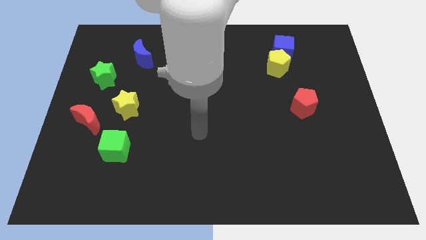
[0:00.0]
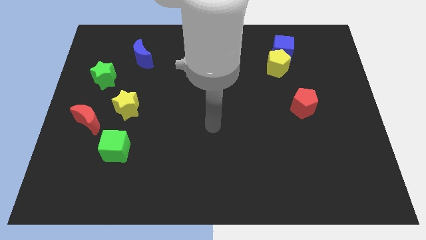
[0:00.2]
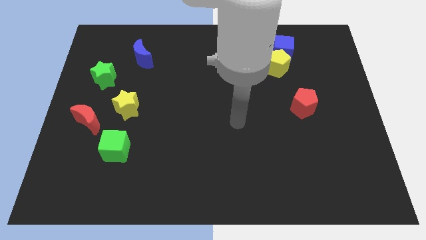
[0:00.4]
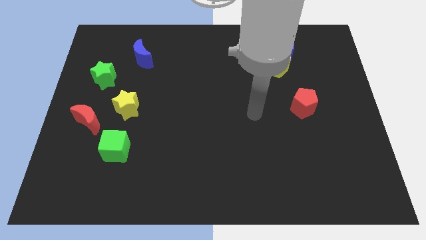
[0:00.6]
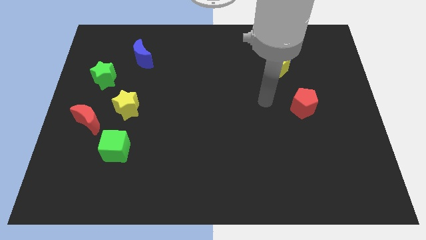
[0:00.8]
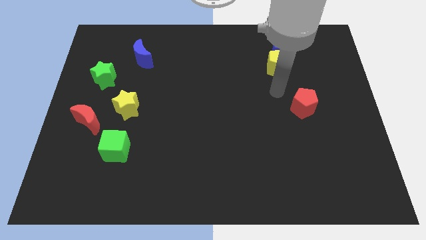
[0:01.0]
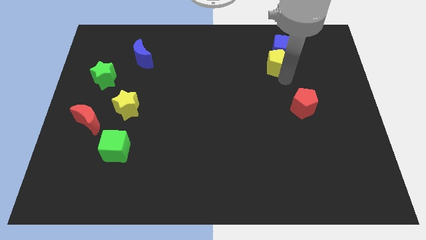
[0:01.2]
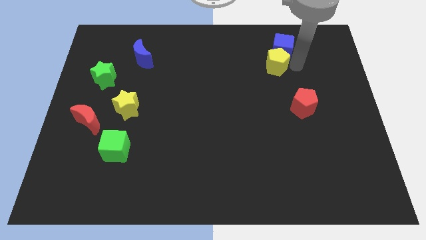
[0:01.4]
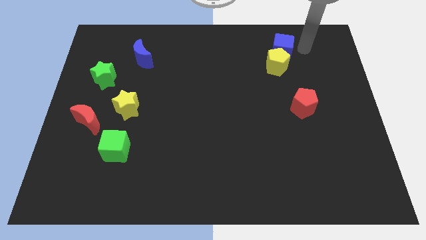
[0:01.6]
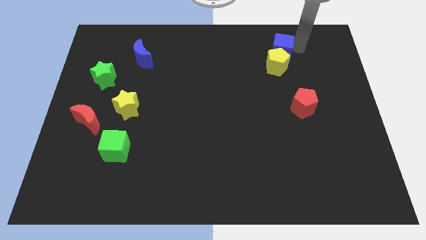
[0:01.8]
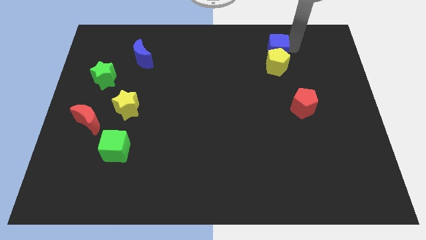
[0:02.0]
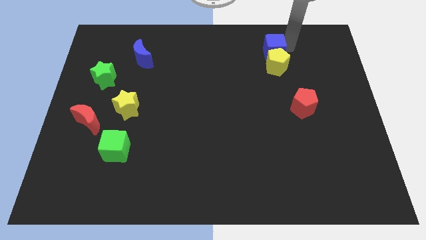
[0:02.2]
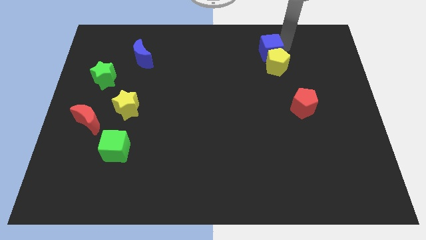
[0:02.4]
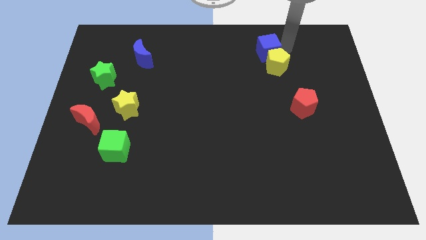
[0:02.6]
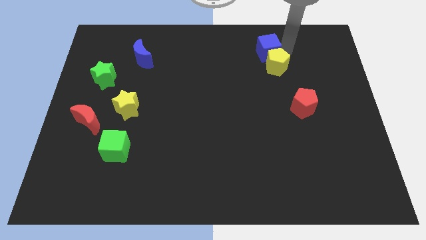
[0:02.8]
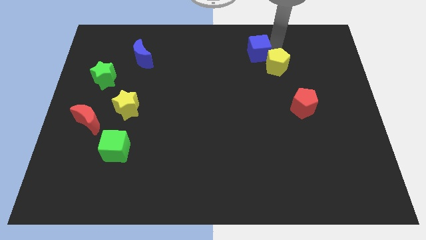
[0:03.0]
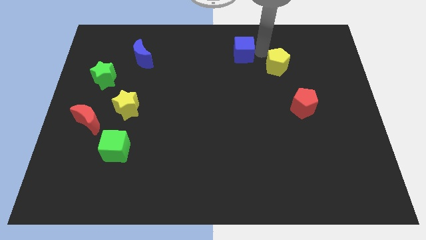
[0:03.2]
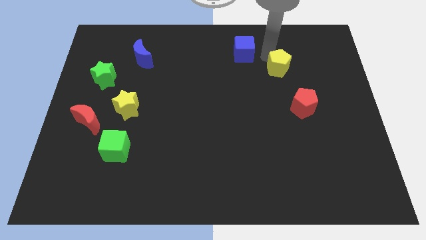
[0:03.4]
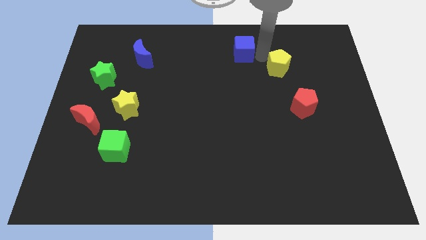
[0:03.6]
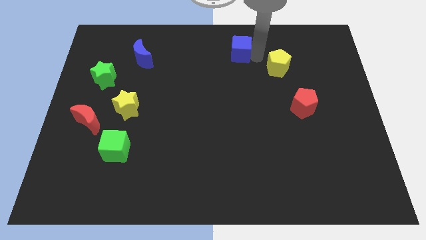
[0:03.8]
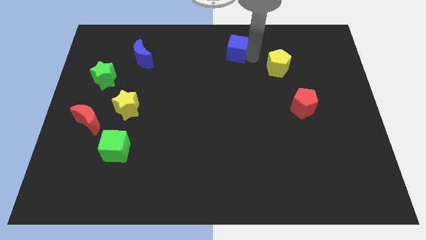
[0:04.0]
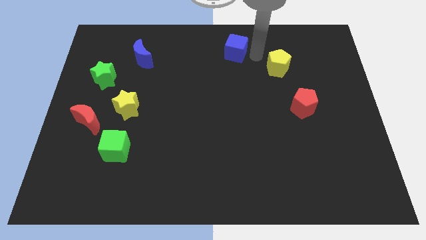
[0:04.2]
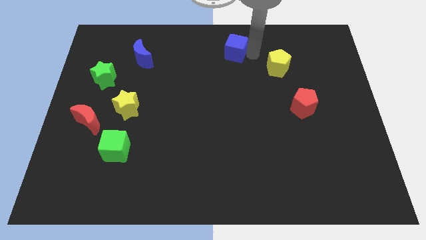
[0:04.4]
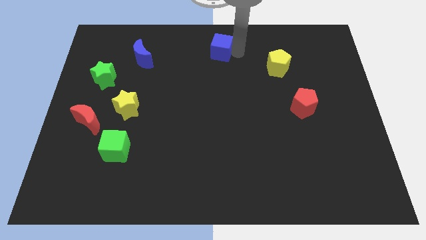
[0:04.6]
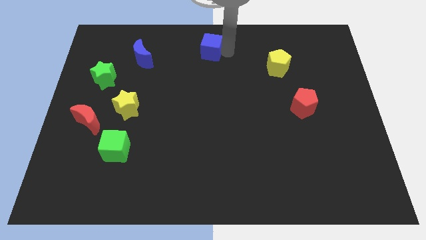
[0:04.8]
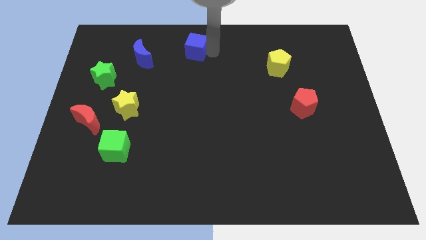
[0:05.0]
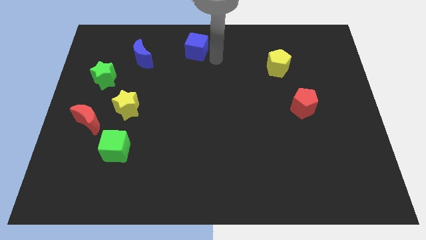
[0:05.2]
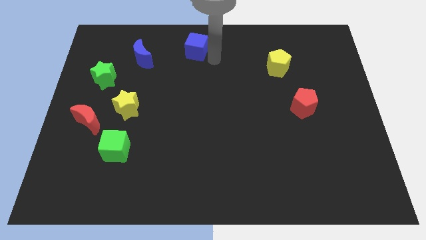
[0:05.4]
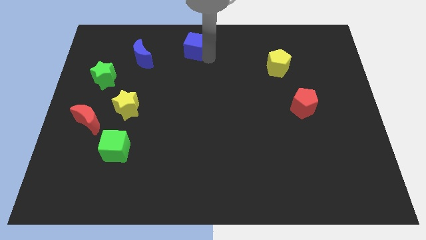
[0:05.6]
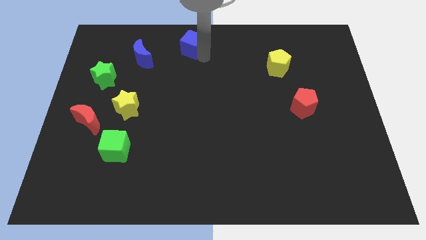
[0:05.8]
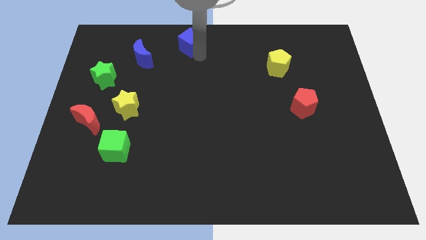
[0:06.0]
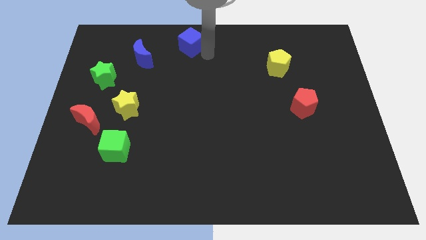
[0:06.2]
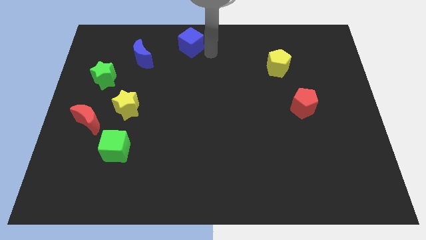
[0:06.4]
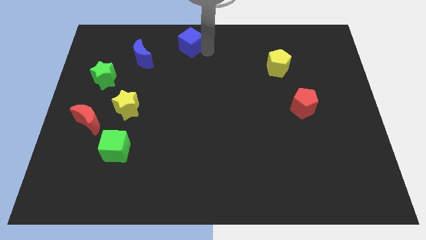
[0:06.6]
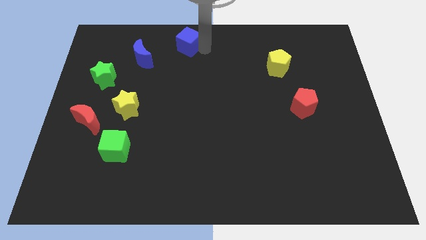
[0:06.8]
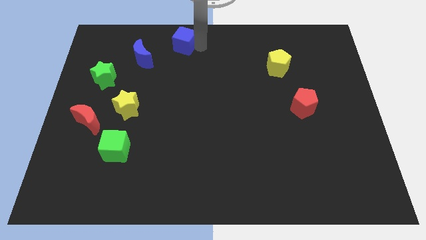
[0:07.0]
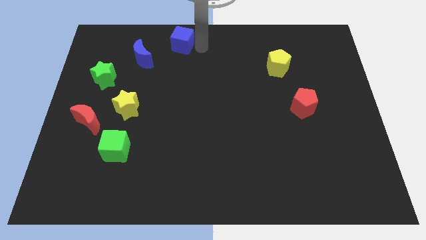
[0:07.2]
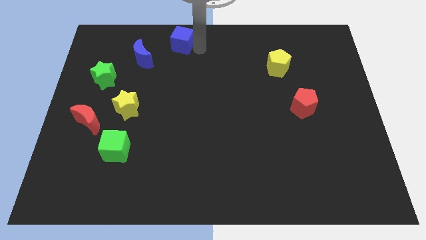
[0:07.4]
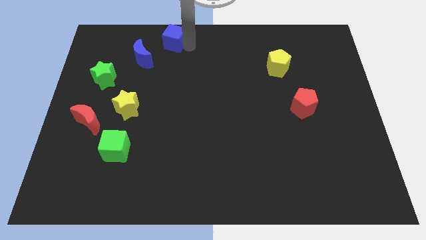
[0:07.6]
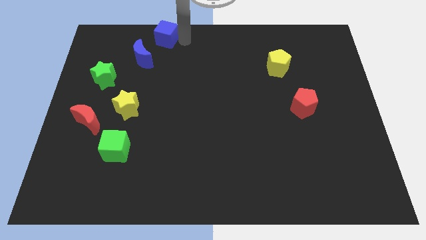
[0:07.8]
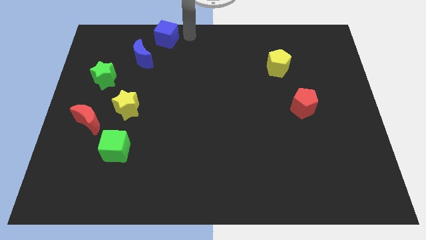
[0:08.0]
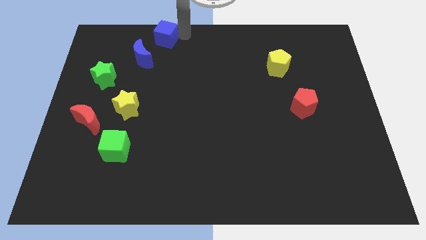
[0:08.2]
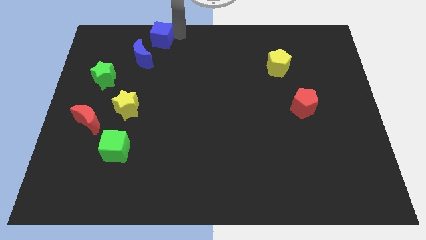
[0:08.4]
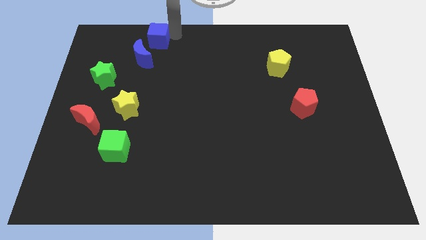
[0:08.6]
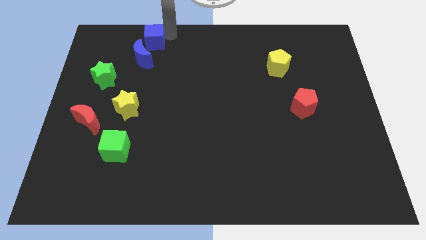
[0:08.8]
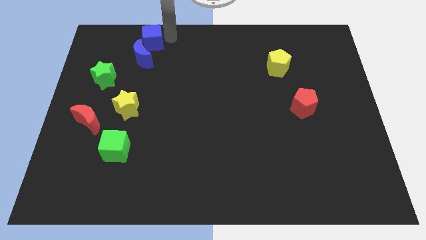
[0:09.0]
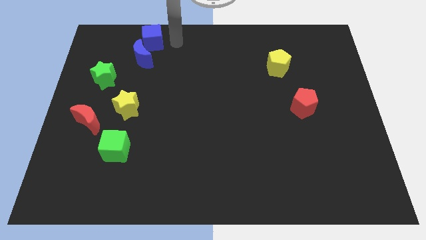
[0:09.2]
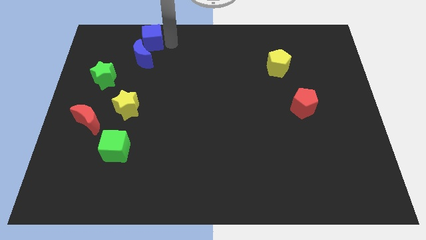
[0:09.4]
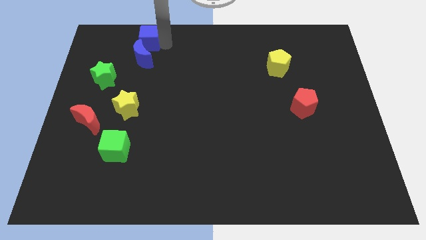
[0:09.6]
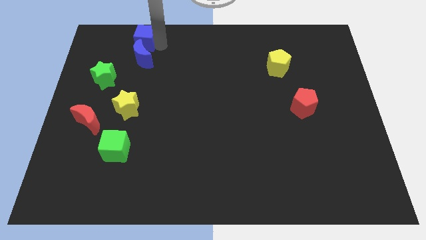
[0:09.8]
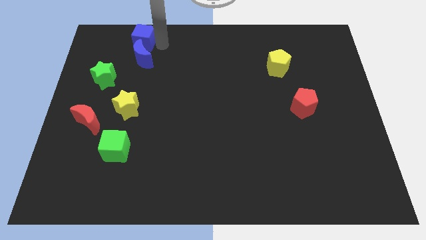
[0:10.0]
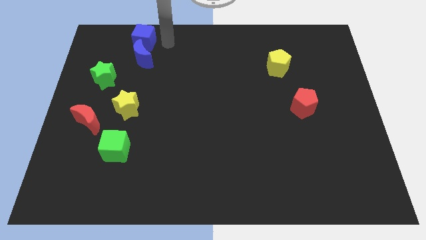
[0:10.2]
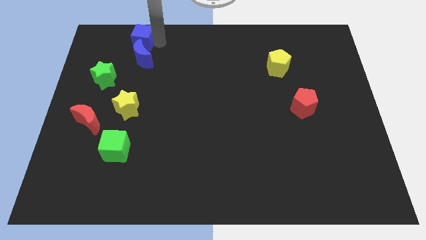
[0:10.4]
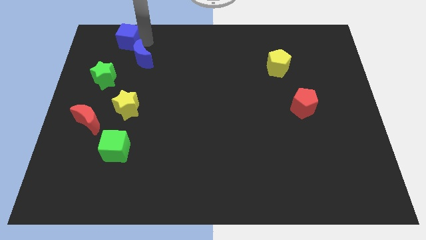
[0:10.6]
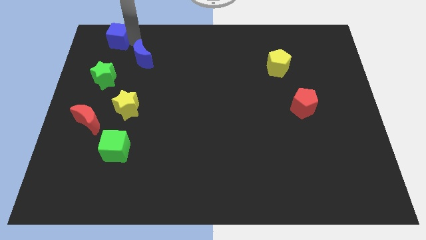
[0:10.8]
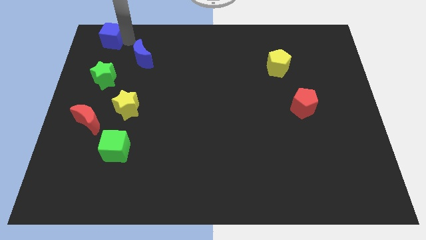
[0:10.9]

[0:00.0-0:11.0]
move the blue cube to the top left of the board

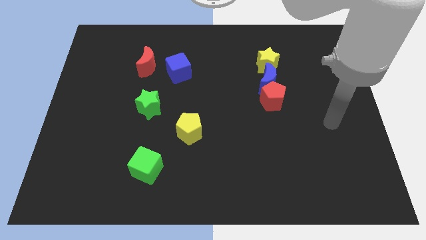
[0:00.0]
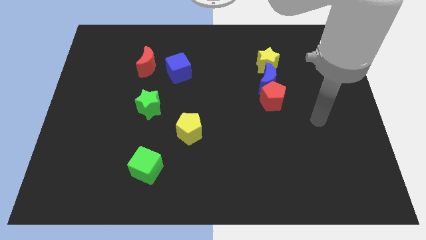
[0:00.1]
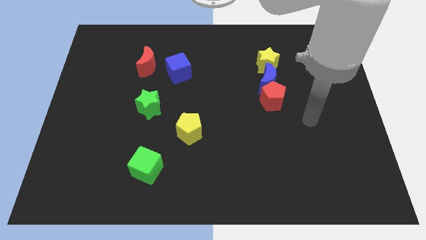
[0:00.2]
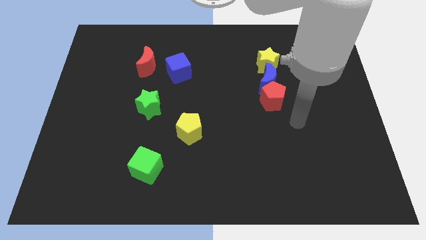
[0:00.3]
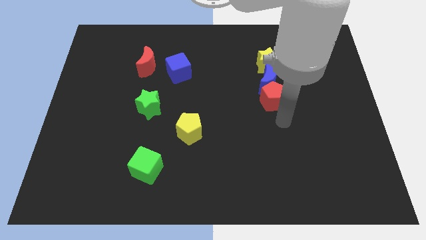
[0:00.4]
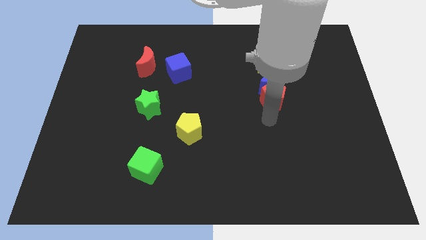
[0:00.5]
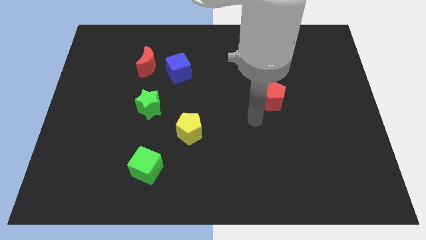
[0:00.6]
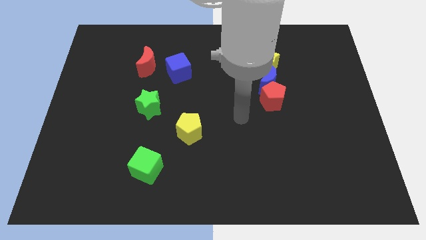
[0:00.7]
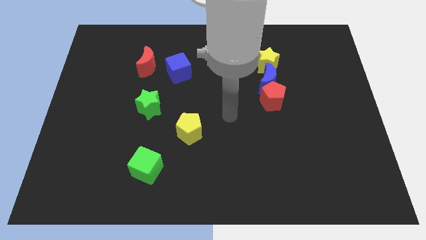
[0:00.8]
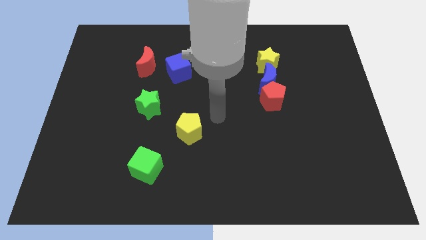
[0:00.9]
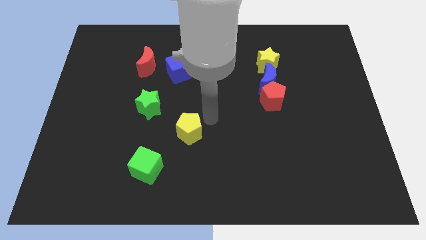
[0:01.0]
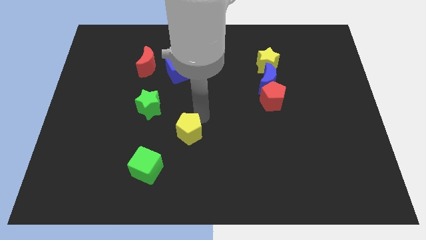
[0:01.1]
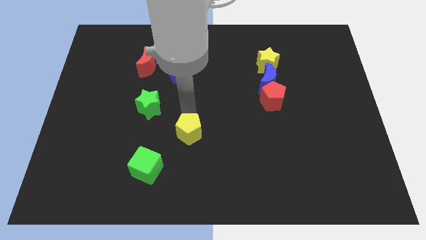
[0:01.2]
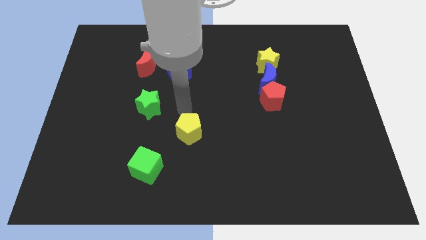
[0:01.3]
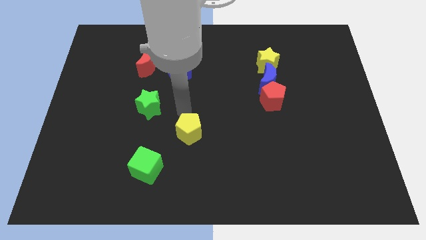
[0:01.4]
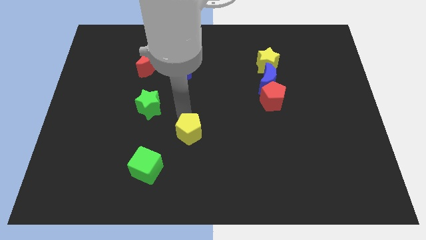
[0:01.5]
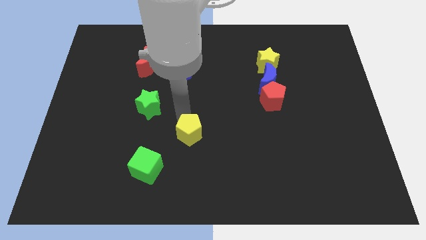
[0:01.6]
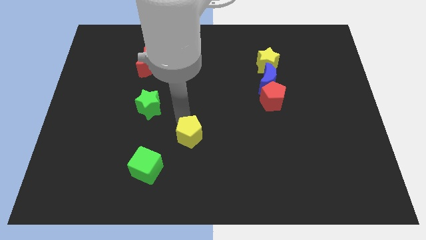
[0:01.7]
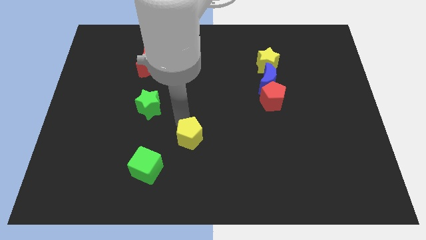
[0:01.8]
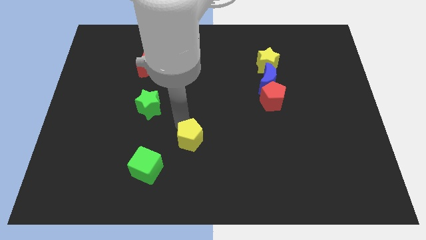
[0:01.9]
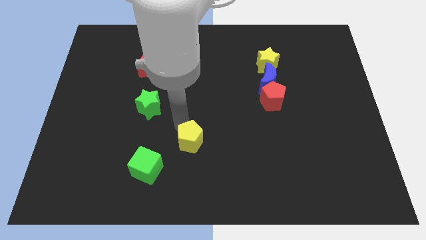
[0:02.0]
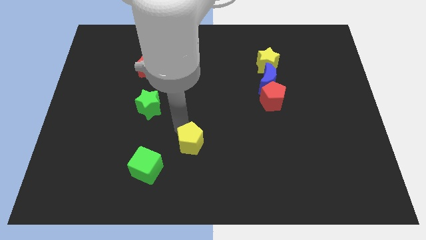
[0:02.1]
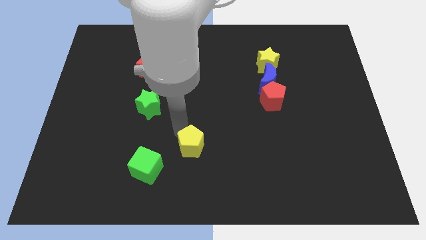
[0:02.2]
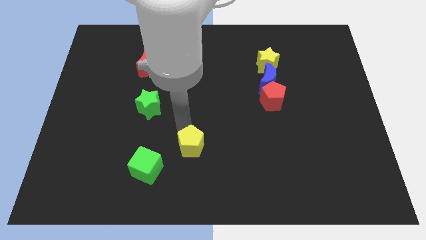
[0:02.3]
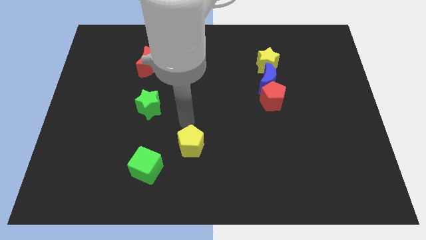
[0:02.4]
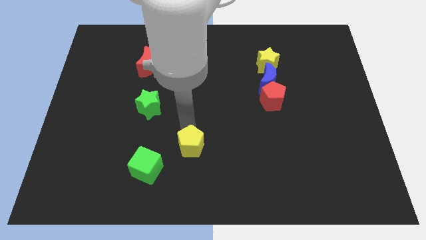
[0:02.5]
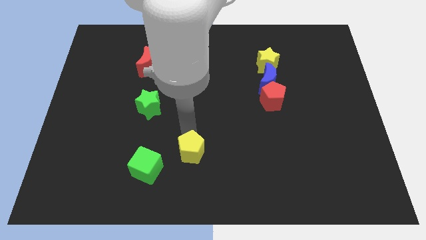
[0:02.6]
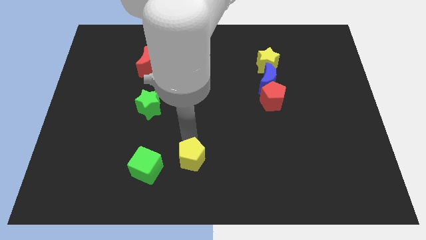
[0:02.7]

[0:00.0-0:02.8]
put the yellow pentagon to the bottom side
